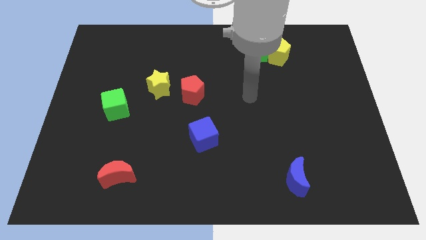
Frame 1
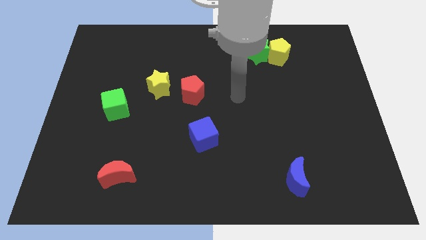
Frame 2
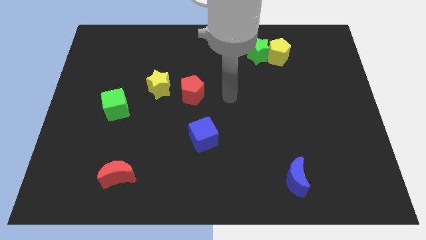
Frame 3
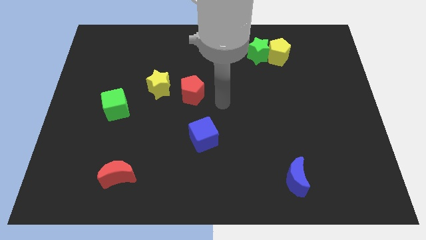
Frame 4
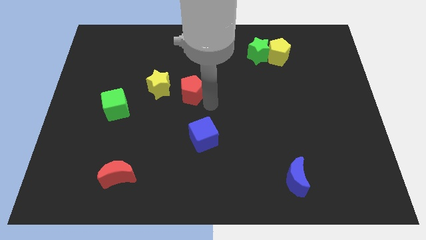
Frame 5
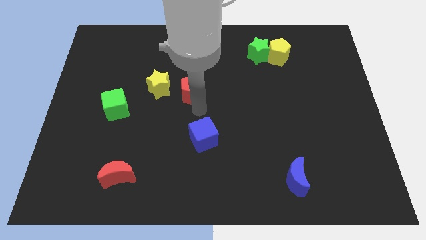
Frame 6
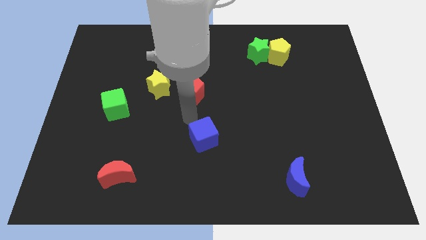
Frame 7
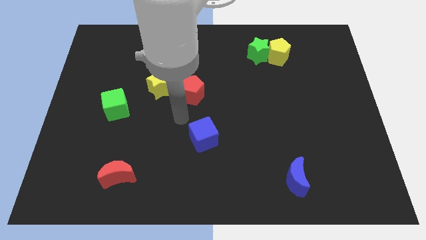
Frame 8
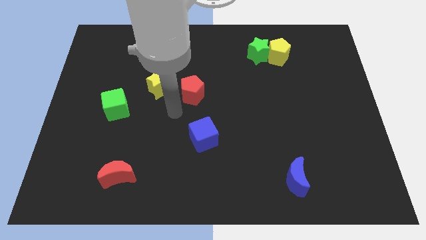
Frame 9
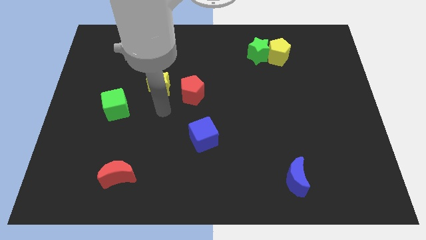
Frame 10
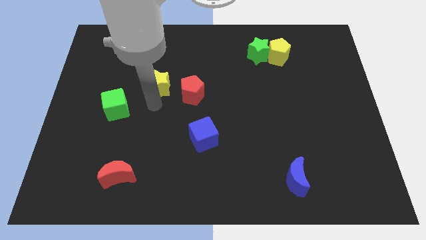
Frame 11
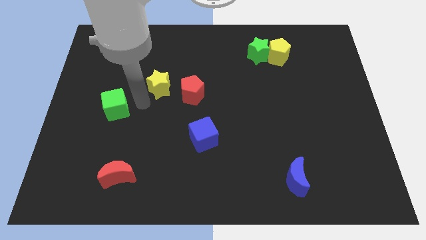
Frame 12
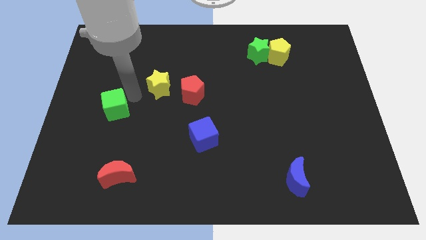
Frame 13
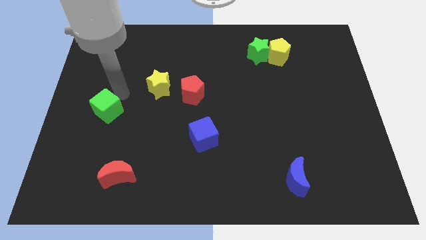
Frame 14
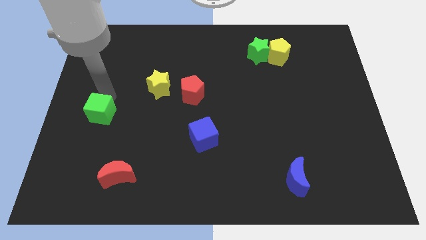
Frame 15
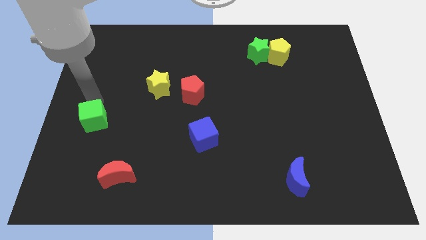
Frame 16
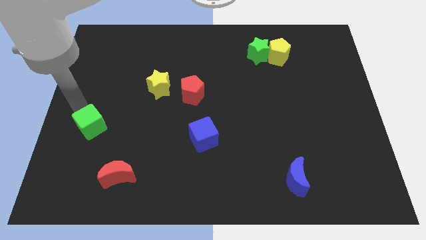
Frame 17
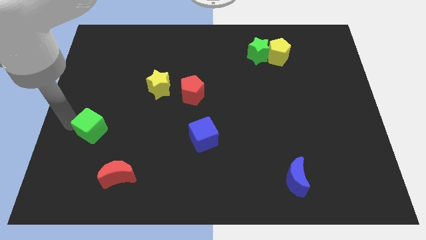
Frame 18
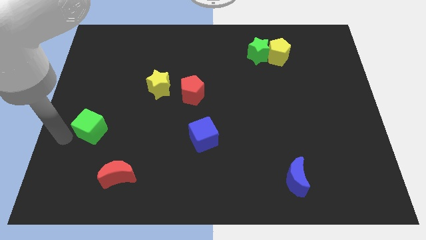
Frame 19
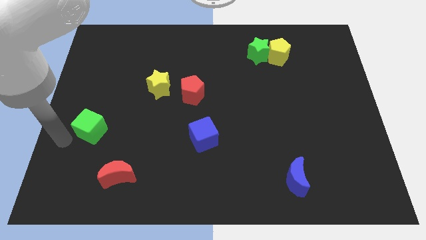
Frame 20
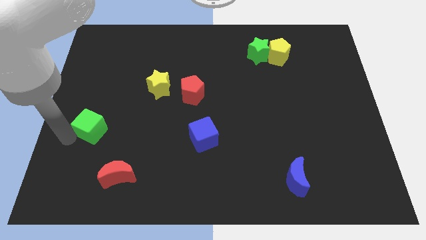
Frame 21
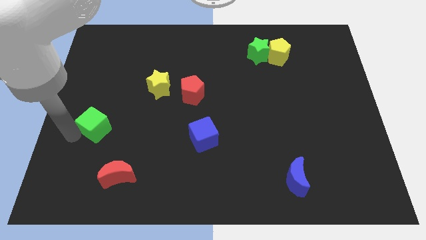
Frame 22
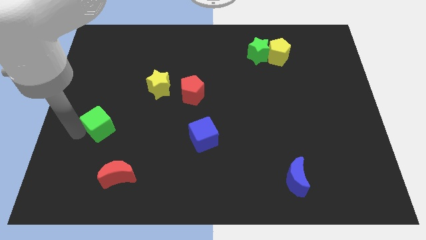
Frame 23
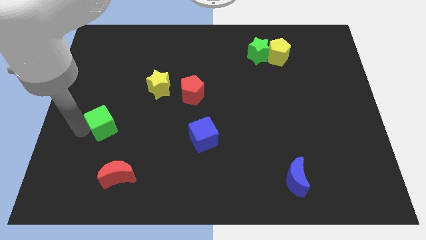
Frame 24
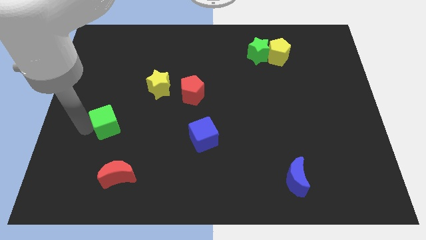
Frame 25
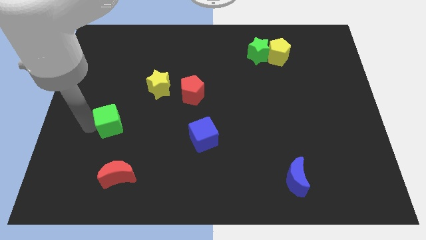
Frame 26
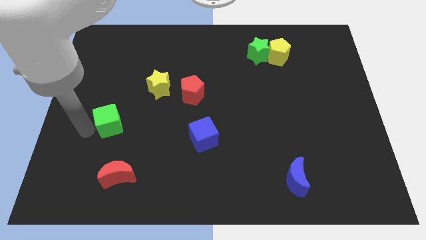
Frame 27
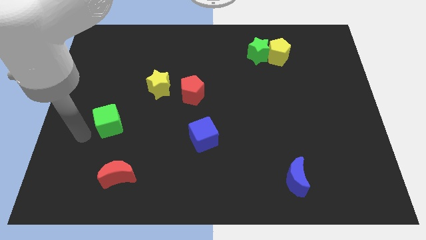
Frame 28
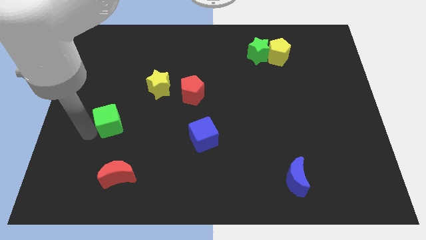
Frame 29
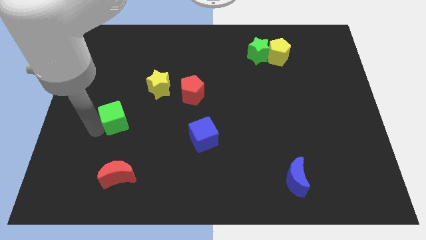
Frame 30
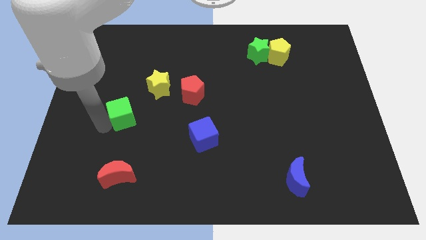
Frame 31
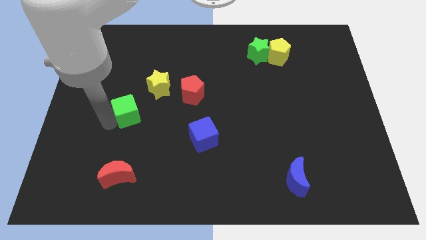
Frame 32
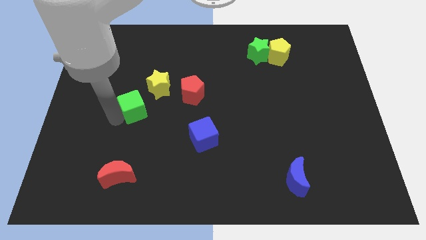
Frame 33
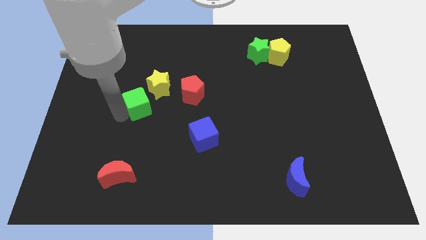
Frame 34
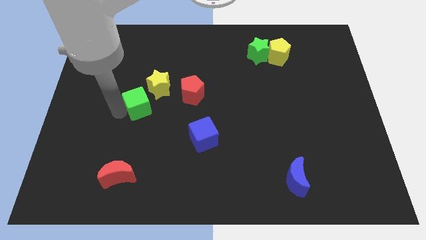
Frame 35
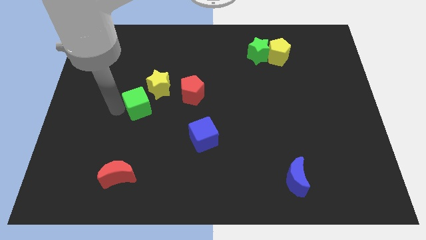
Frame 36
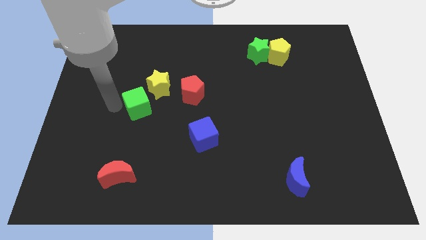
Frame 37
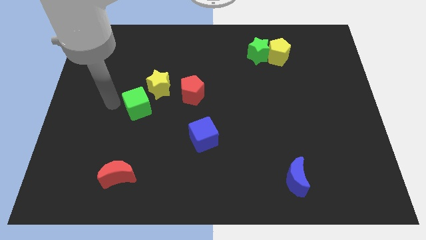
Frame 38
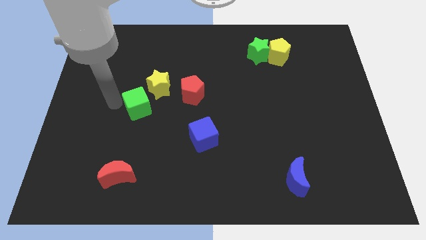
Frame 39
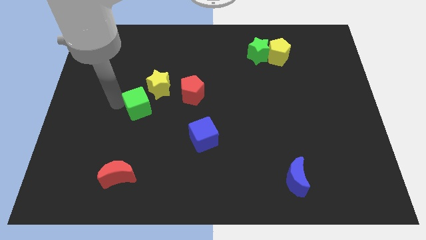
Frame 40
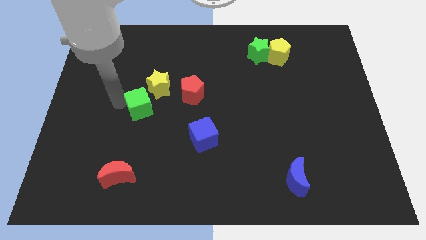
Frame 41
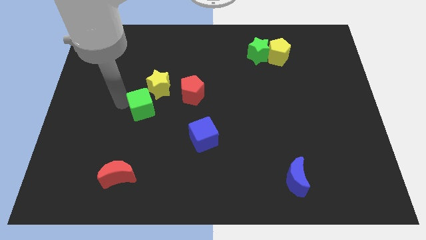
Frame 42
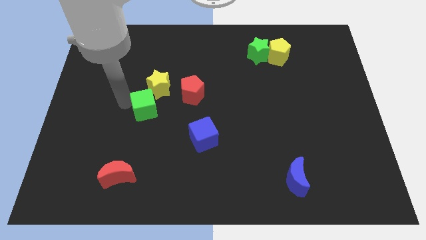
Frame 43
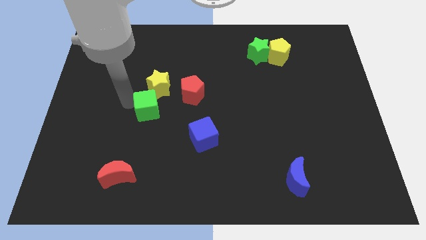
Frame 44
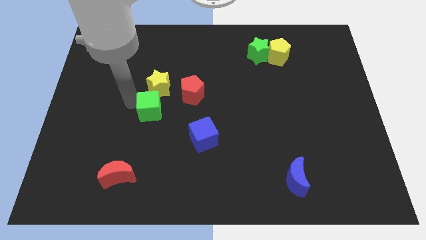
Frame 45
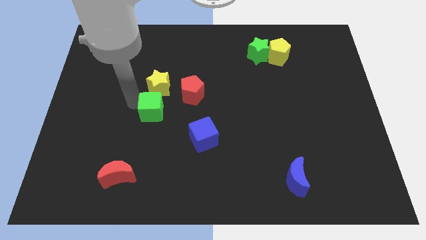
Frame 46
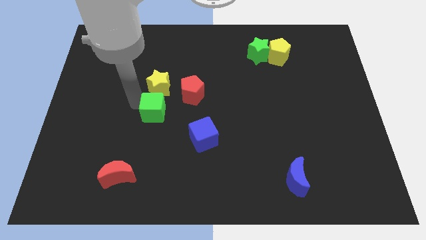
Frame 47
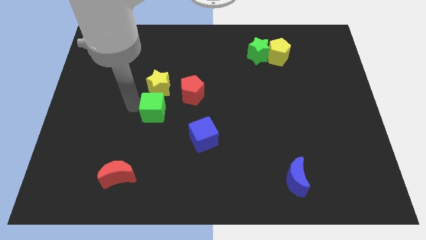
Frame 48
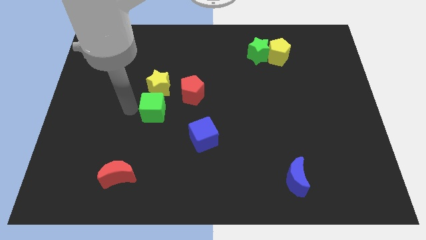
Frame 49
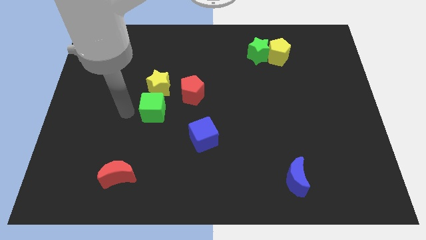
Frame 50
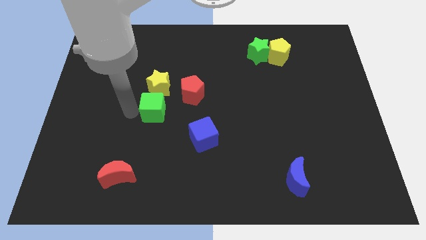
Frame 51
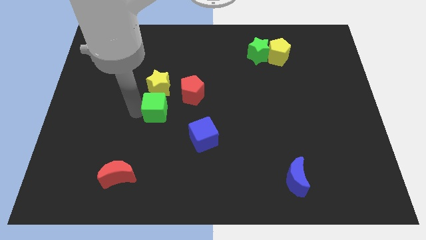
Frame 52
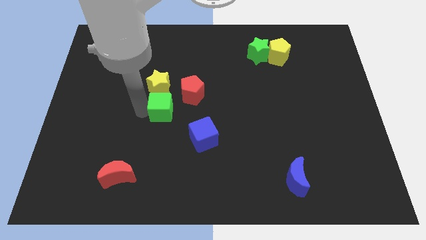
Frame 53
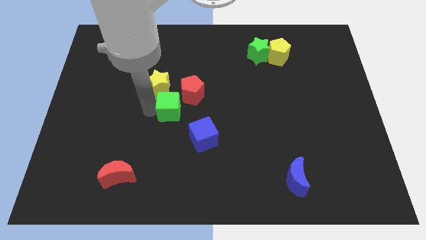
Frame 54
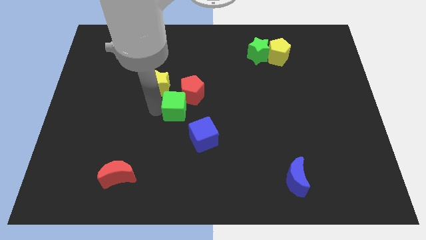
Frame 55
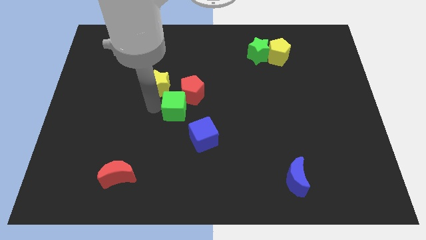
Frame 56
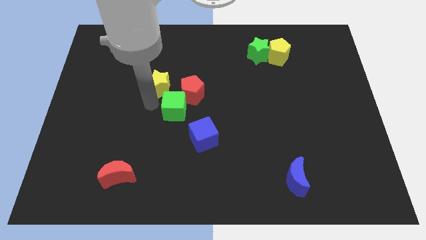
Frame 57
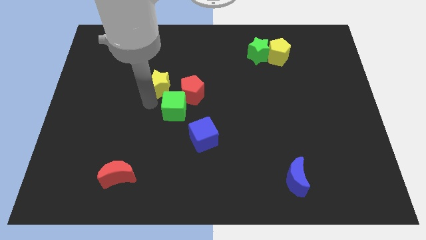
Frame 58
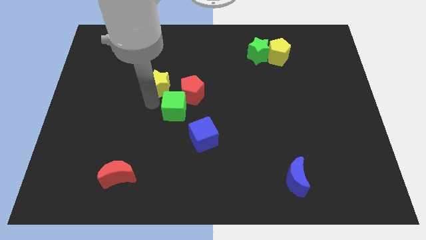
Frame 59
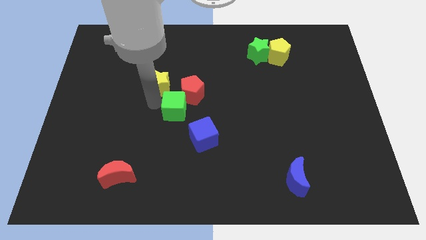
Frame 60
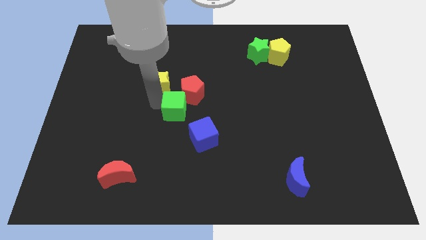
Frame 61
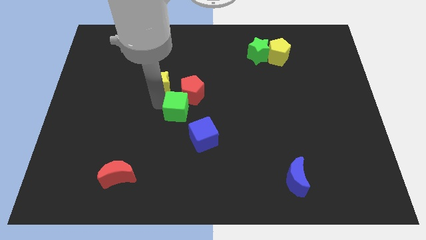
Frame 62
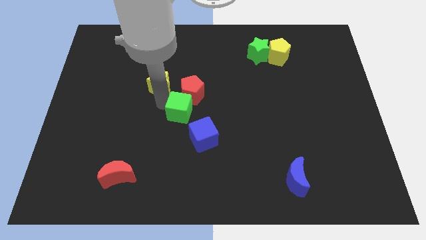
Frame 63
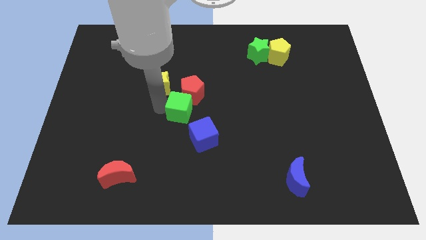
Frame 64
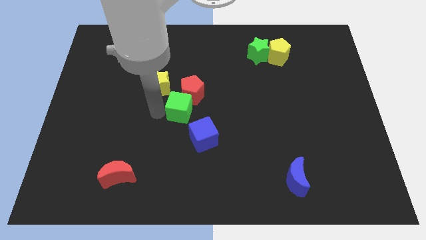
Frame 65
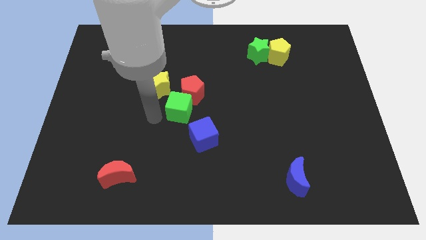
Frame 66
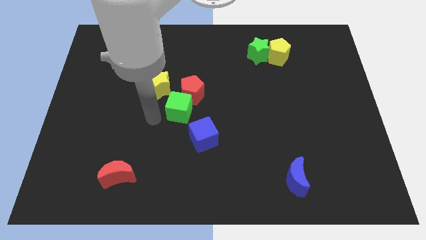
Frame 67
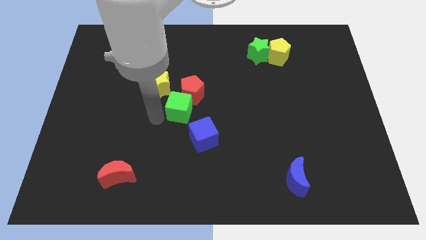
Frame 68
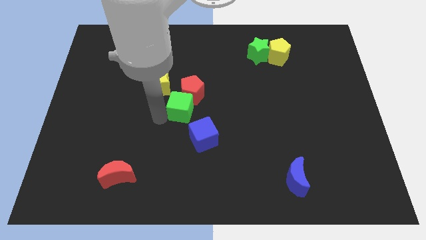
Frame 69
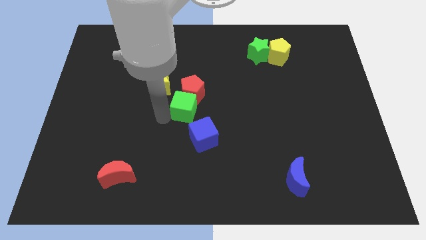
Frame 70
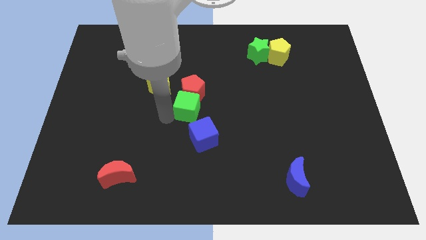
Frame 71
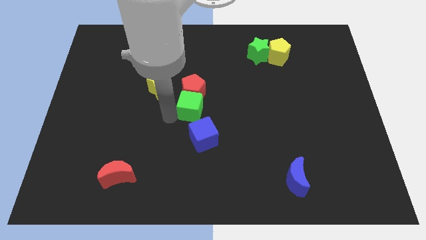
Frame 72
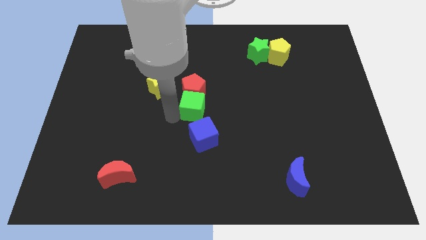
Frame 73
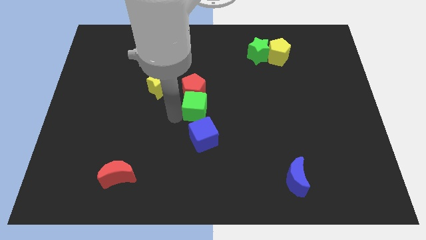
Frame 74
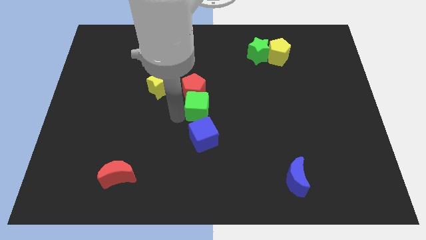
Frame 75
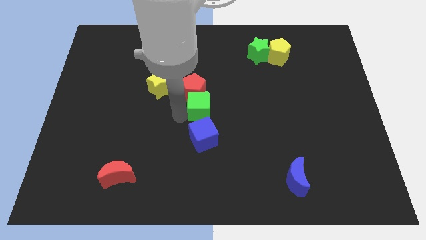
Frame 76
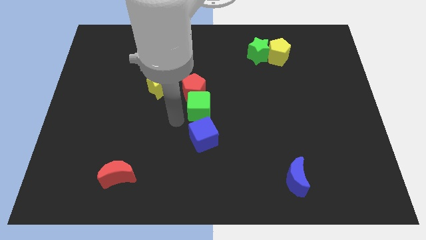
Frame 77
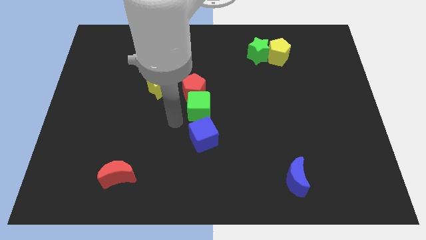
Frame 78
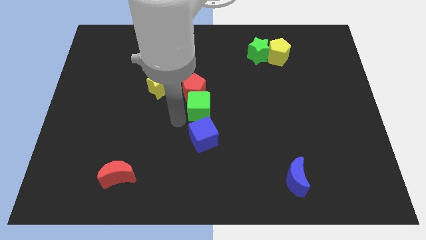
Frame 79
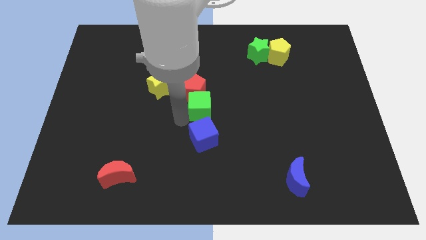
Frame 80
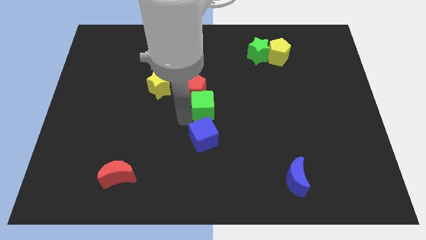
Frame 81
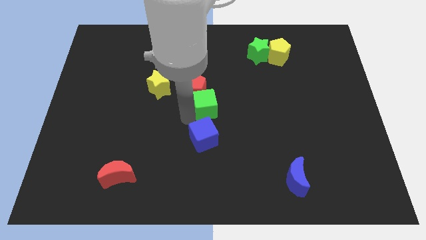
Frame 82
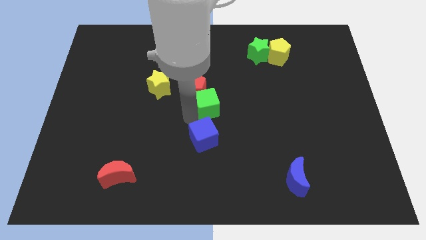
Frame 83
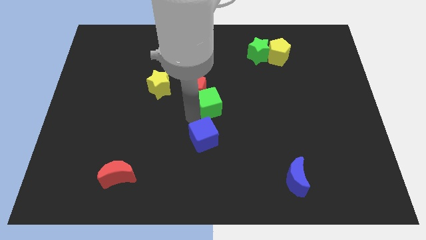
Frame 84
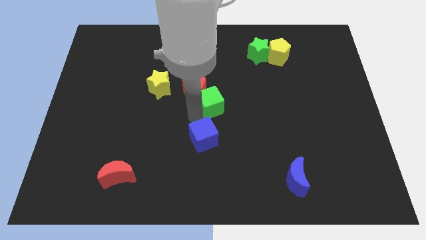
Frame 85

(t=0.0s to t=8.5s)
put the green cube just right of the red pentagon
